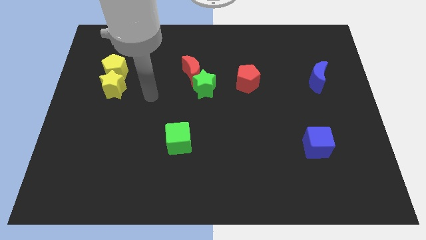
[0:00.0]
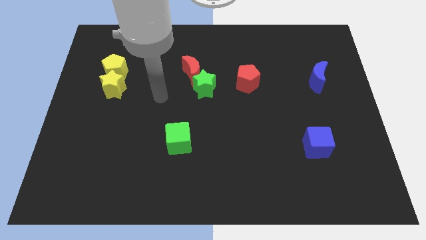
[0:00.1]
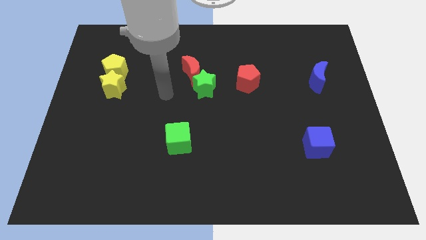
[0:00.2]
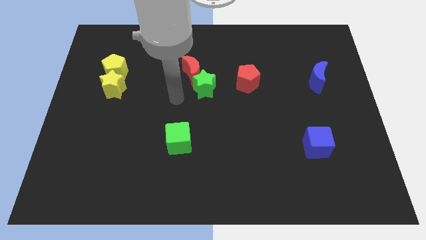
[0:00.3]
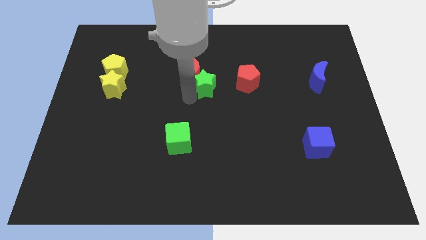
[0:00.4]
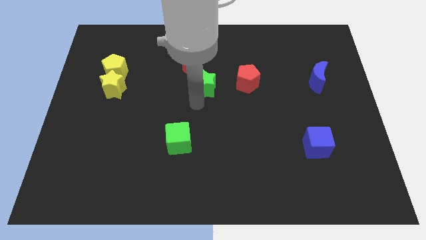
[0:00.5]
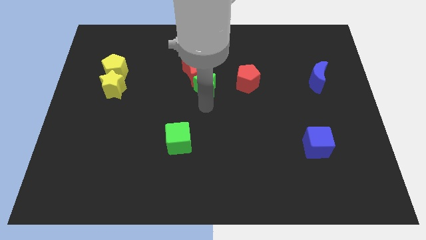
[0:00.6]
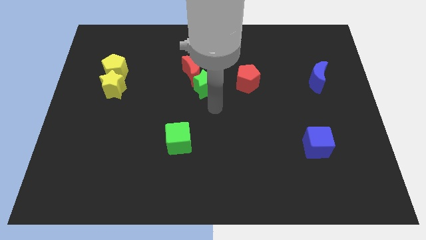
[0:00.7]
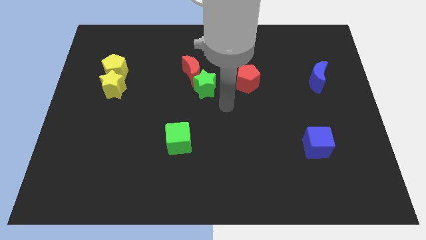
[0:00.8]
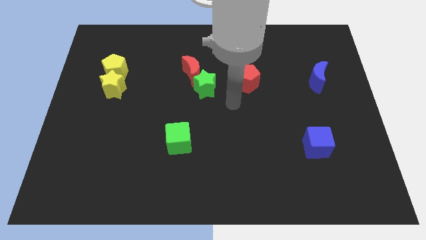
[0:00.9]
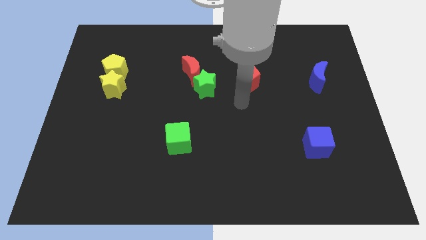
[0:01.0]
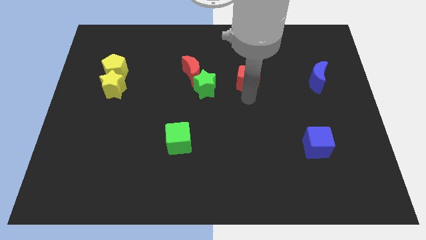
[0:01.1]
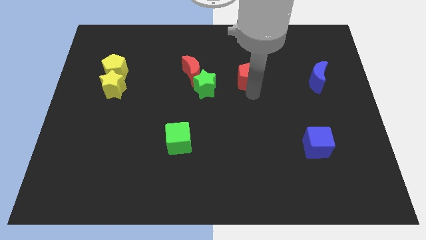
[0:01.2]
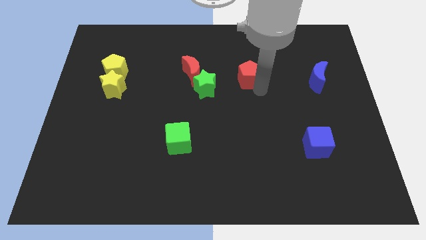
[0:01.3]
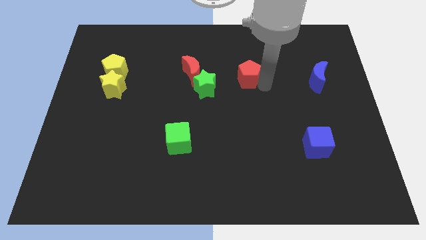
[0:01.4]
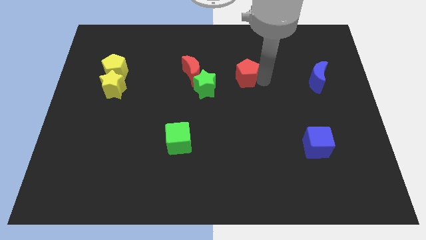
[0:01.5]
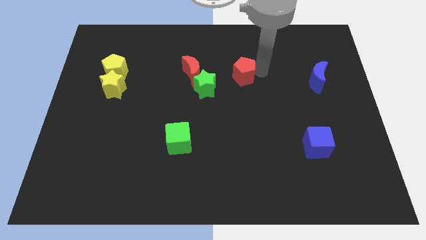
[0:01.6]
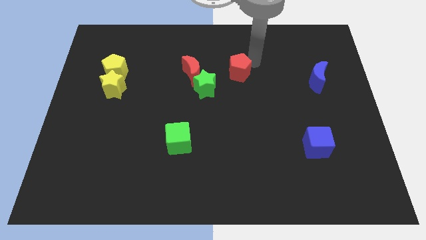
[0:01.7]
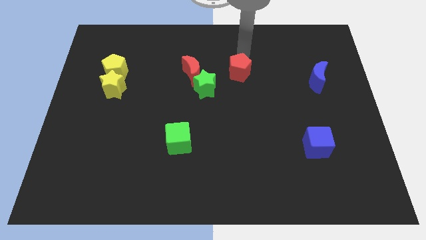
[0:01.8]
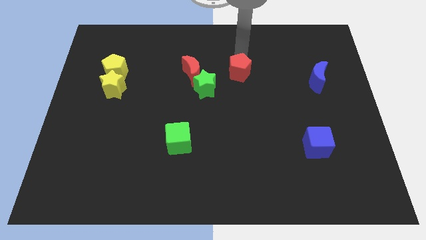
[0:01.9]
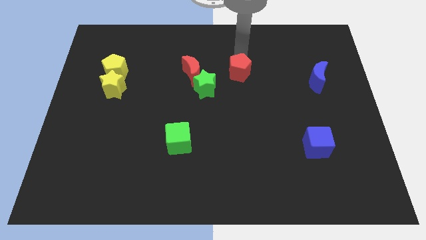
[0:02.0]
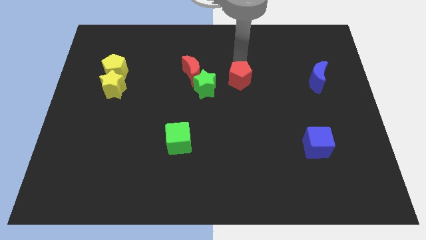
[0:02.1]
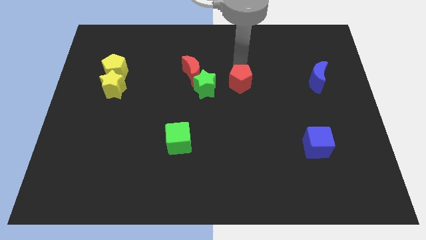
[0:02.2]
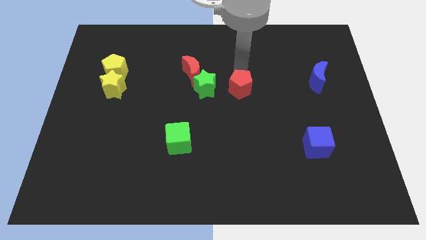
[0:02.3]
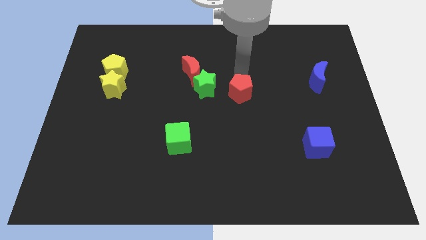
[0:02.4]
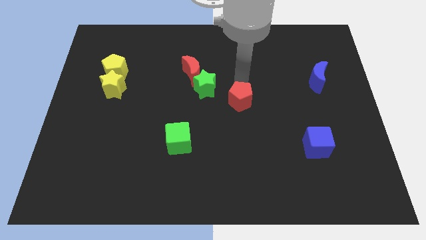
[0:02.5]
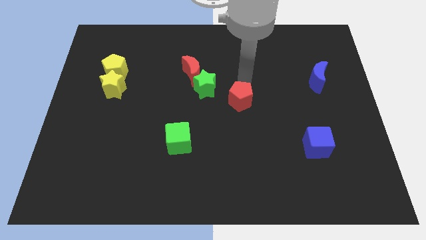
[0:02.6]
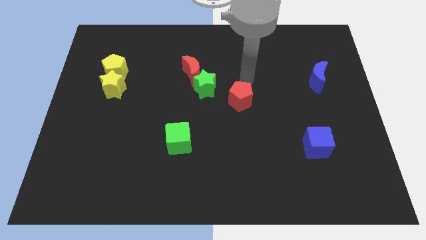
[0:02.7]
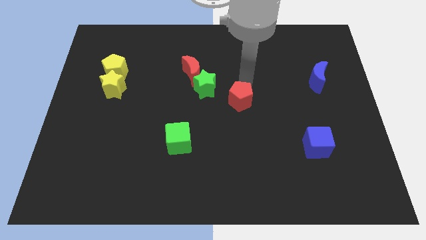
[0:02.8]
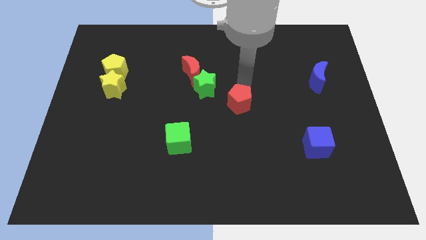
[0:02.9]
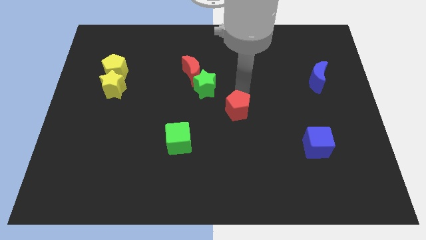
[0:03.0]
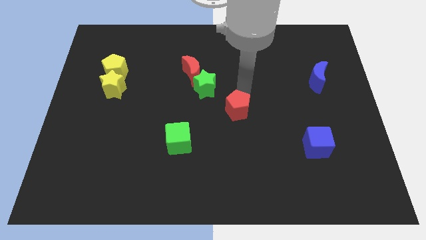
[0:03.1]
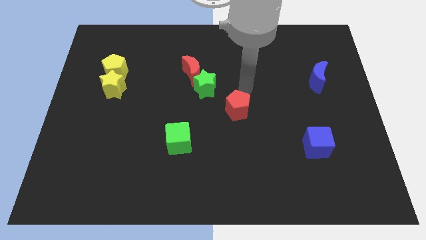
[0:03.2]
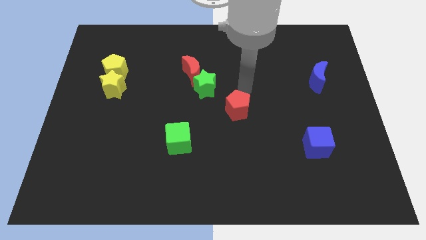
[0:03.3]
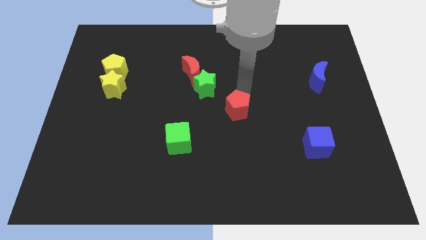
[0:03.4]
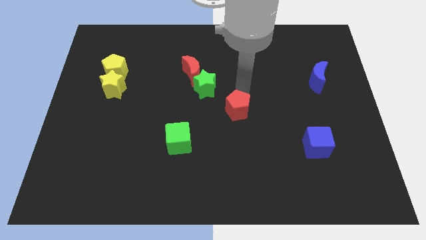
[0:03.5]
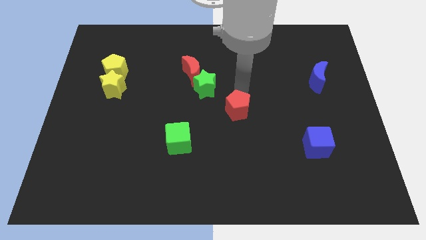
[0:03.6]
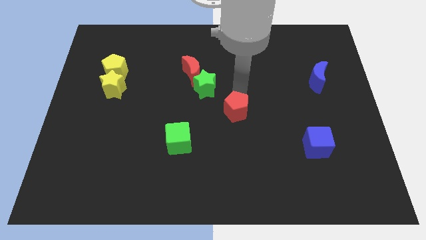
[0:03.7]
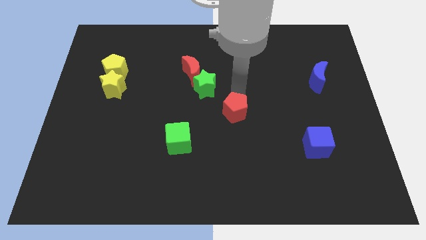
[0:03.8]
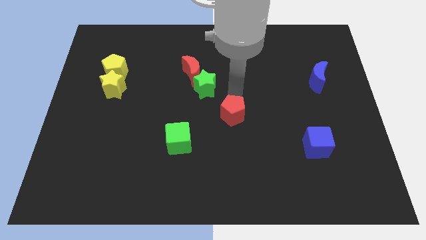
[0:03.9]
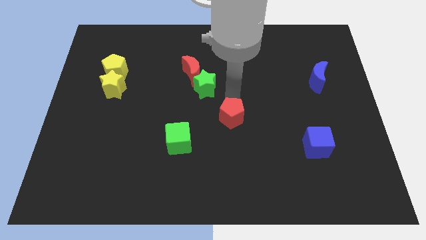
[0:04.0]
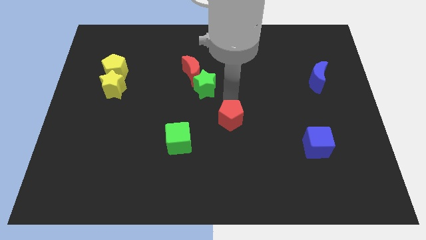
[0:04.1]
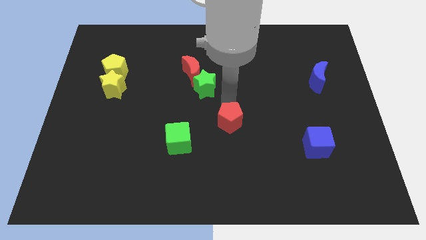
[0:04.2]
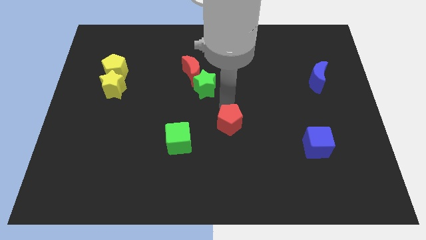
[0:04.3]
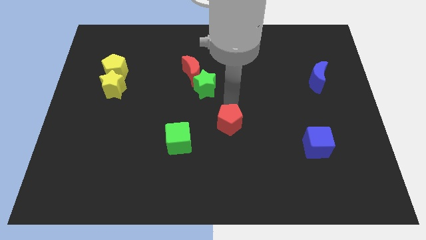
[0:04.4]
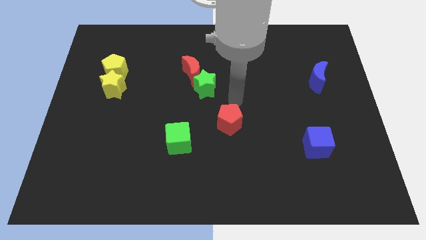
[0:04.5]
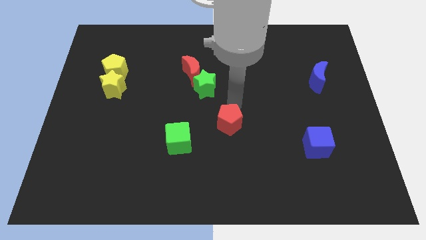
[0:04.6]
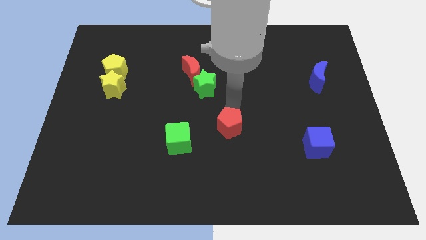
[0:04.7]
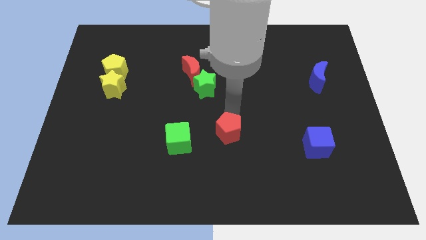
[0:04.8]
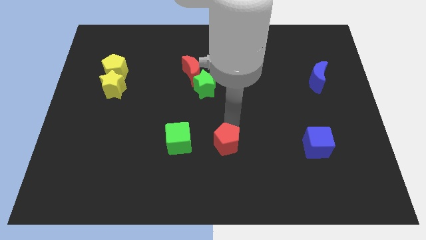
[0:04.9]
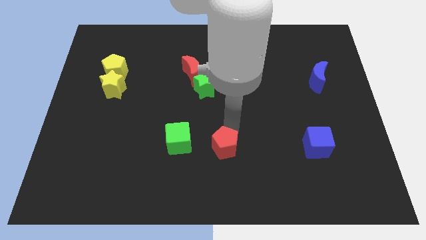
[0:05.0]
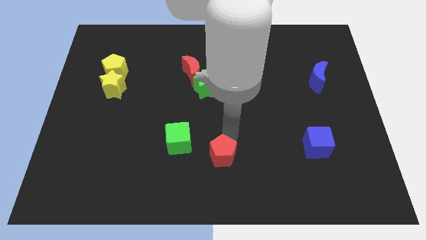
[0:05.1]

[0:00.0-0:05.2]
slide the red pentagon to the bottom right side of the green cube

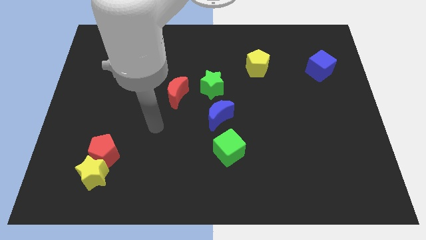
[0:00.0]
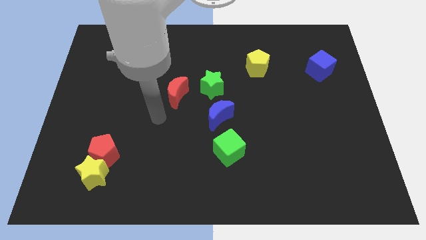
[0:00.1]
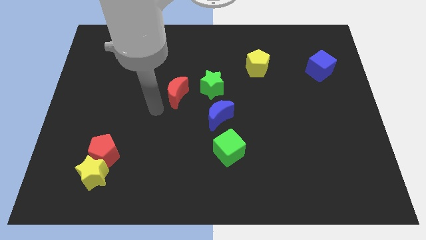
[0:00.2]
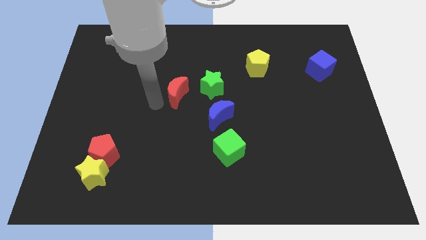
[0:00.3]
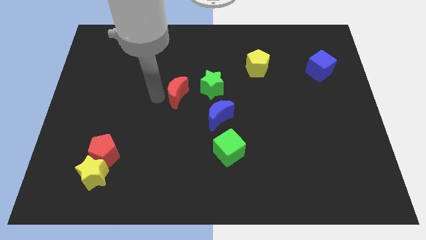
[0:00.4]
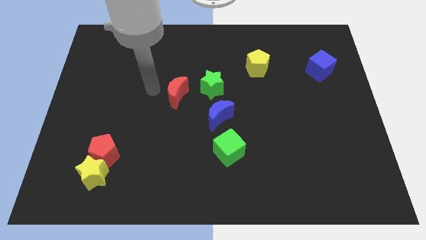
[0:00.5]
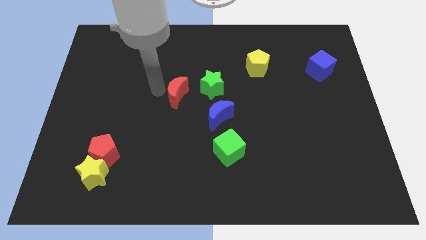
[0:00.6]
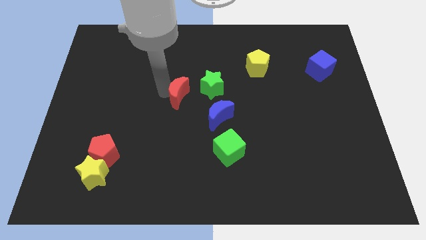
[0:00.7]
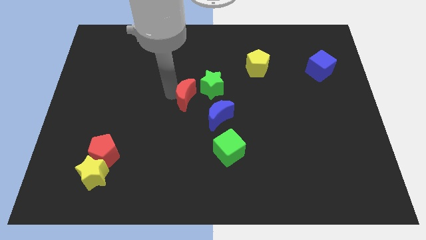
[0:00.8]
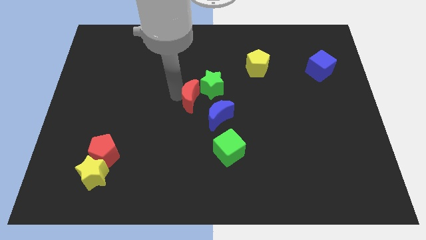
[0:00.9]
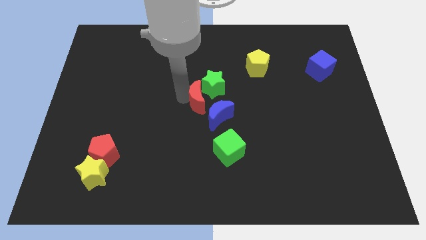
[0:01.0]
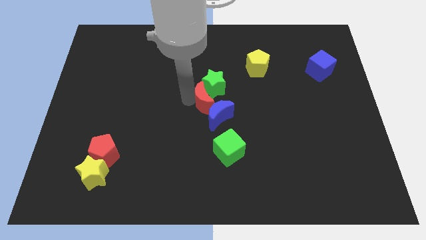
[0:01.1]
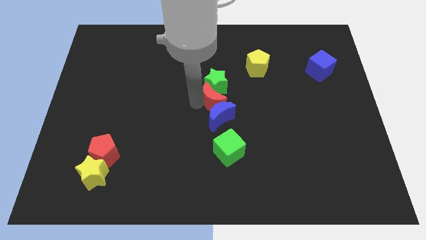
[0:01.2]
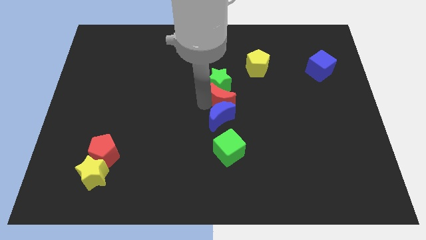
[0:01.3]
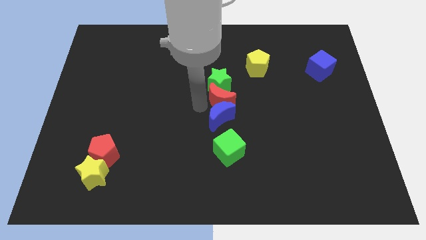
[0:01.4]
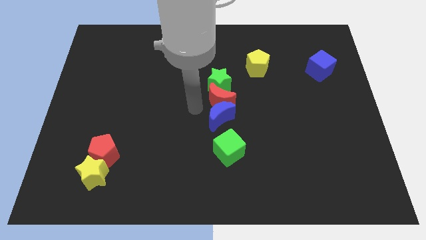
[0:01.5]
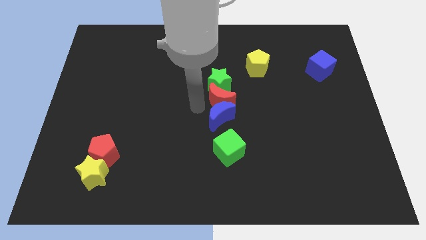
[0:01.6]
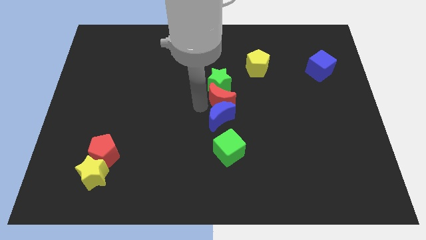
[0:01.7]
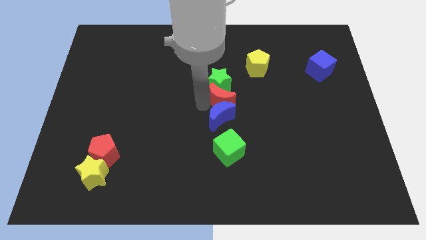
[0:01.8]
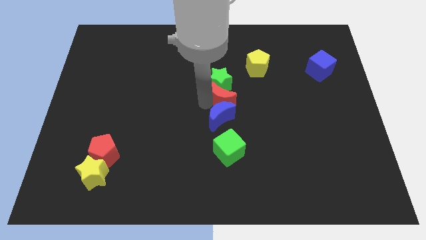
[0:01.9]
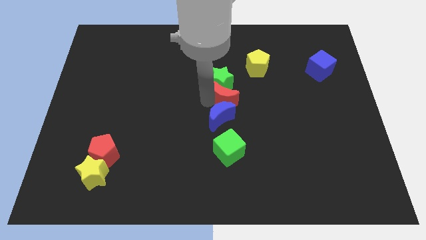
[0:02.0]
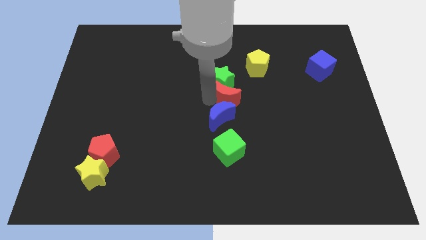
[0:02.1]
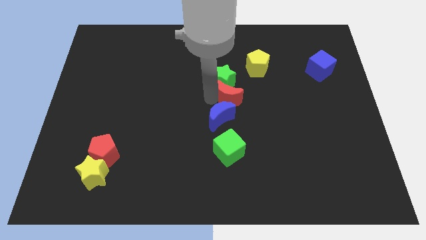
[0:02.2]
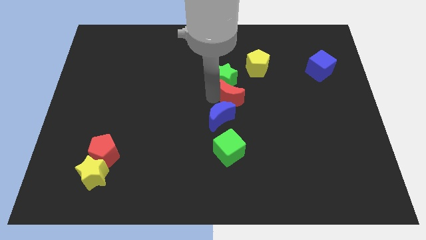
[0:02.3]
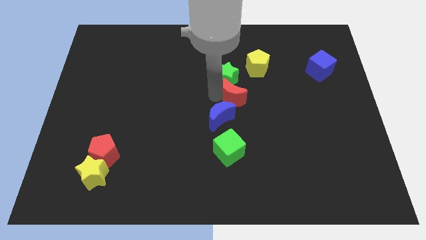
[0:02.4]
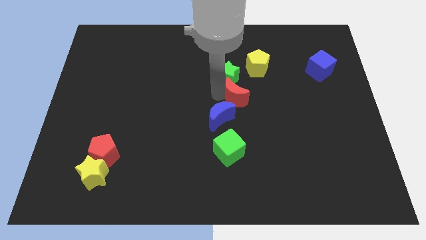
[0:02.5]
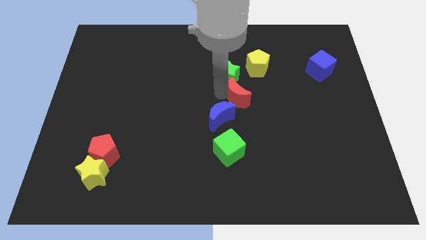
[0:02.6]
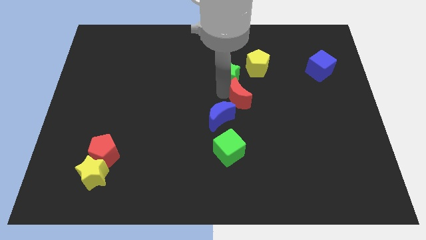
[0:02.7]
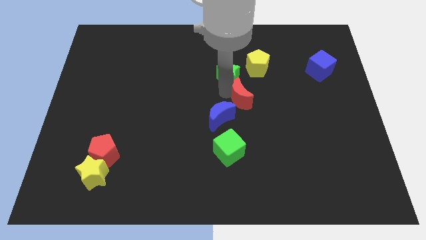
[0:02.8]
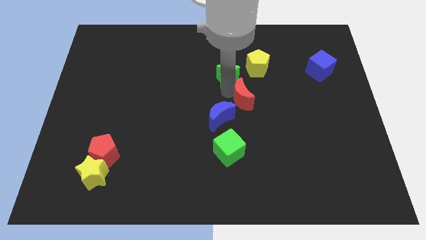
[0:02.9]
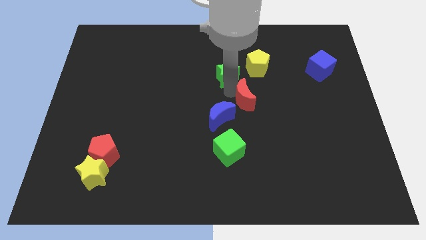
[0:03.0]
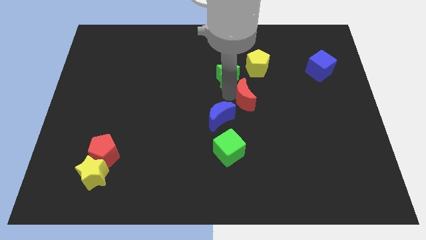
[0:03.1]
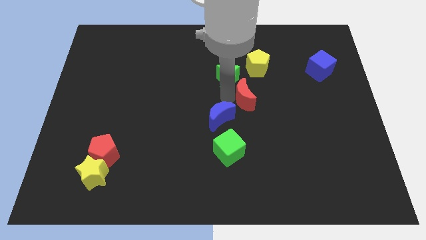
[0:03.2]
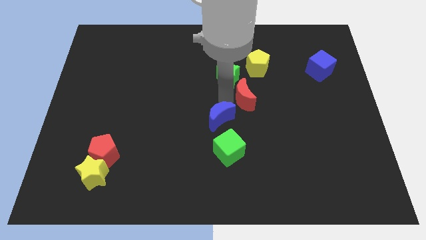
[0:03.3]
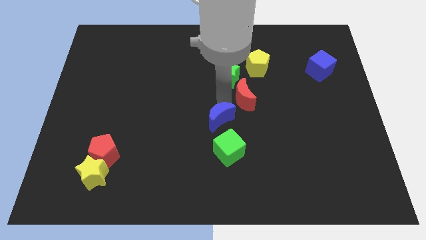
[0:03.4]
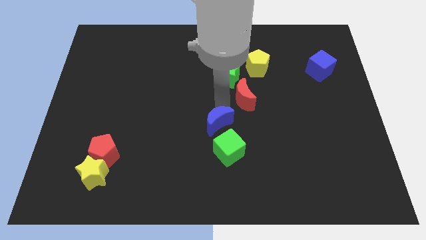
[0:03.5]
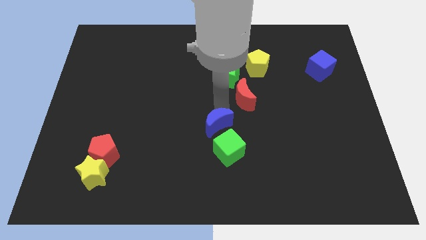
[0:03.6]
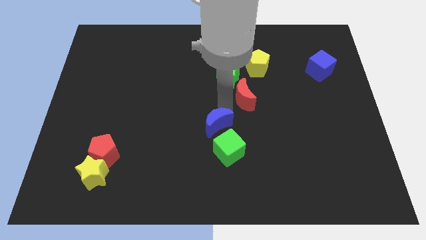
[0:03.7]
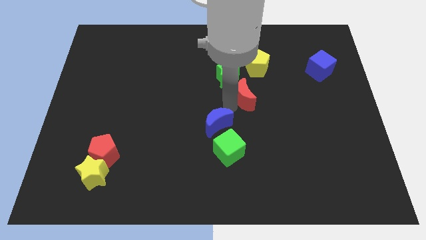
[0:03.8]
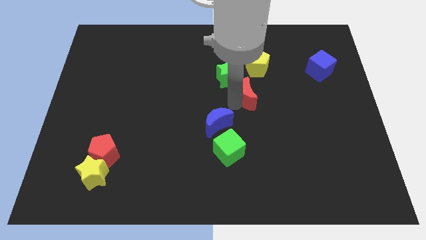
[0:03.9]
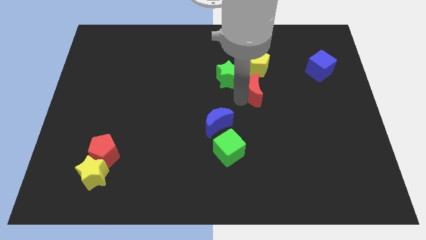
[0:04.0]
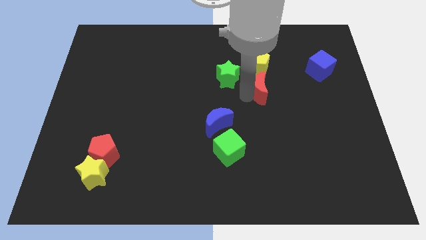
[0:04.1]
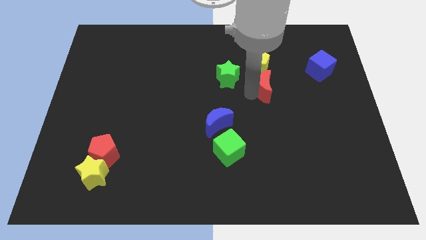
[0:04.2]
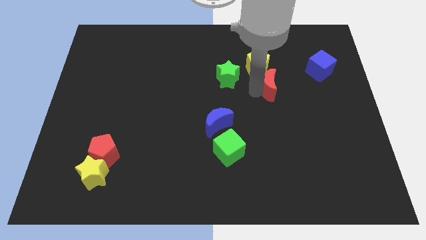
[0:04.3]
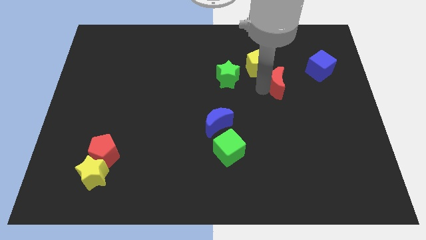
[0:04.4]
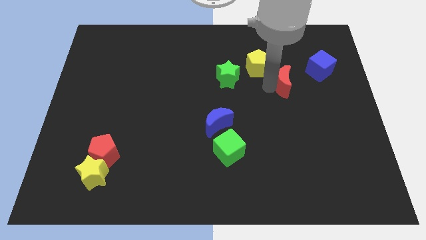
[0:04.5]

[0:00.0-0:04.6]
slide the red moon to the bottom left of the blue cube
